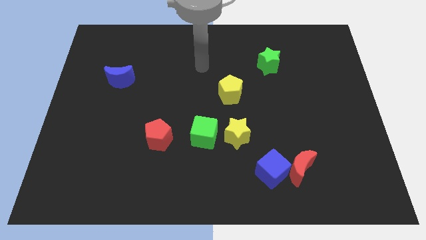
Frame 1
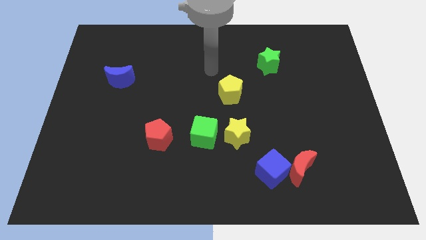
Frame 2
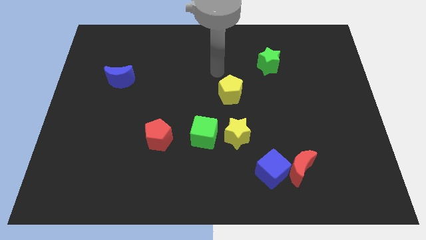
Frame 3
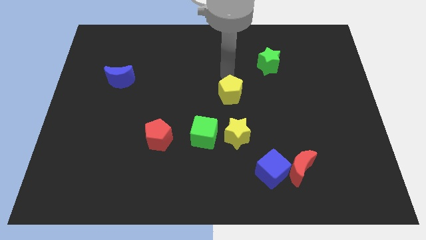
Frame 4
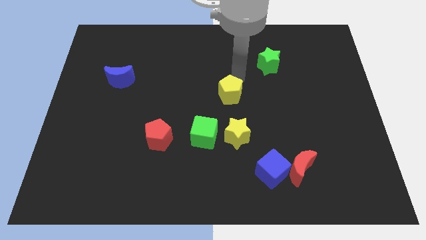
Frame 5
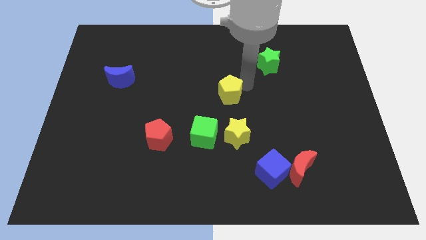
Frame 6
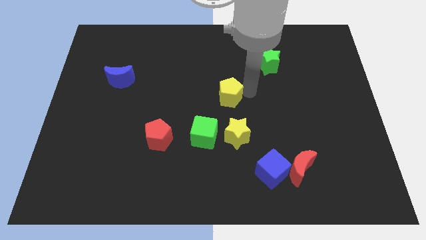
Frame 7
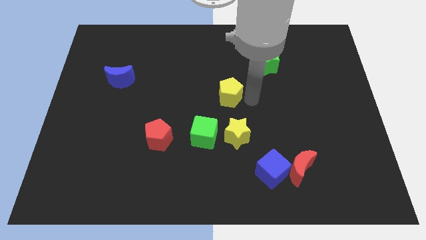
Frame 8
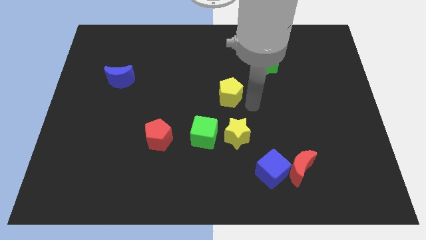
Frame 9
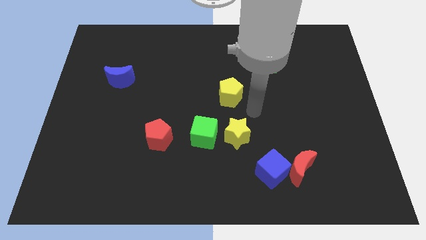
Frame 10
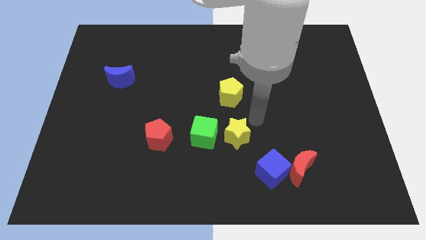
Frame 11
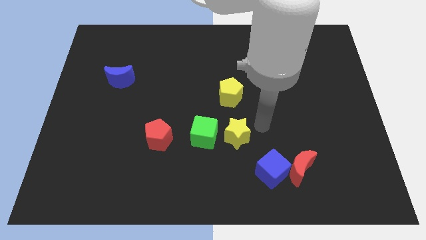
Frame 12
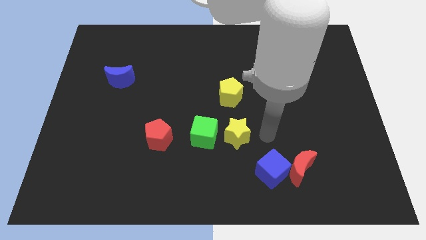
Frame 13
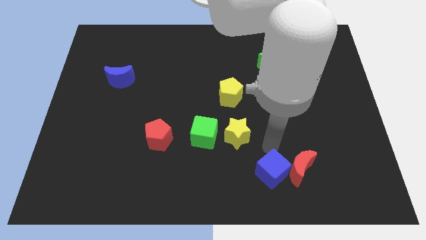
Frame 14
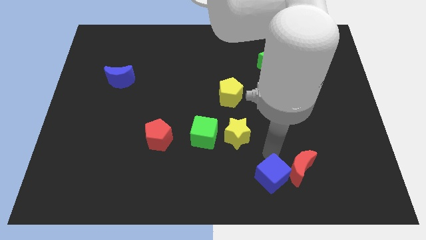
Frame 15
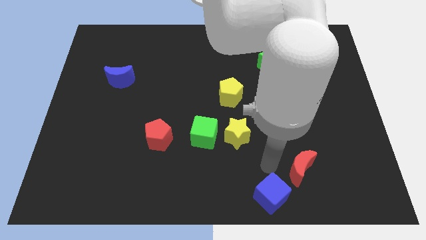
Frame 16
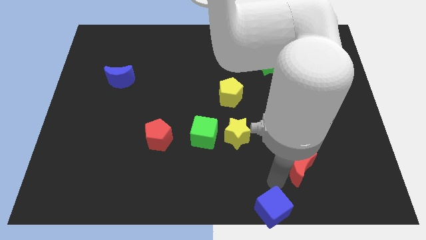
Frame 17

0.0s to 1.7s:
move the red moon away from the blue cube

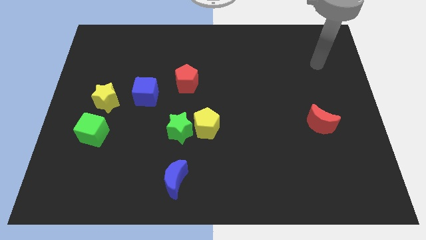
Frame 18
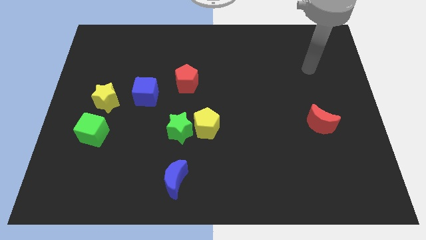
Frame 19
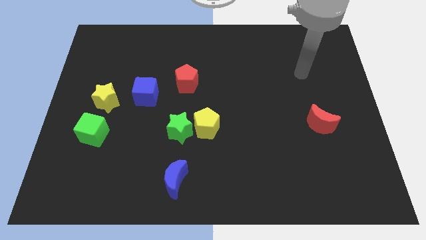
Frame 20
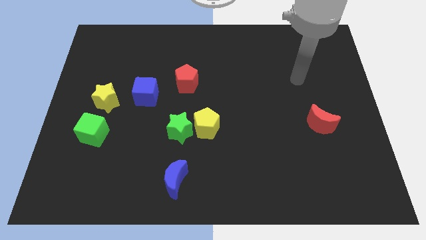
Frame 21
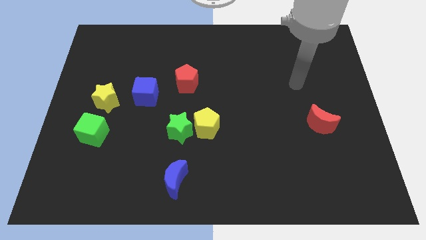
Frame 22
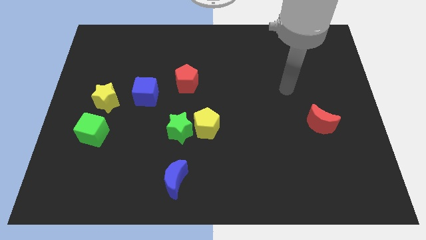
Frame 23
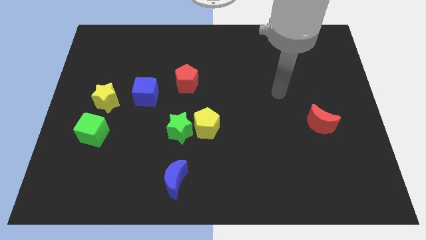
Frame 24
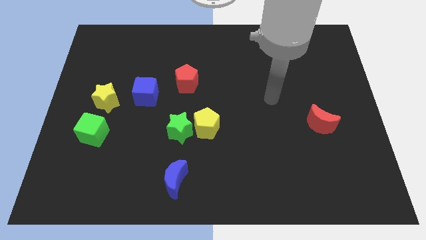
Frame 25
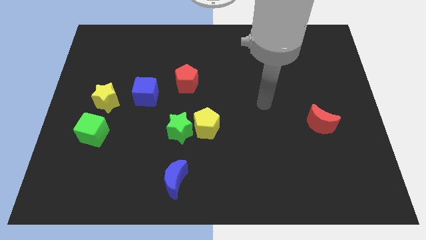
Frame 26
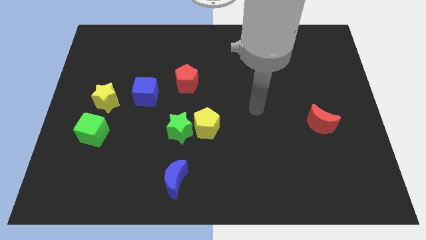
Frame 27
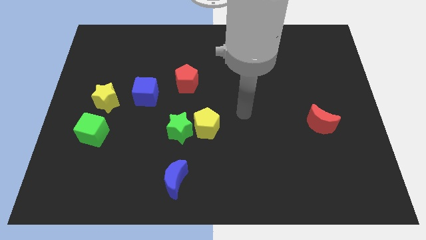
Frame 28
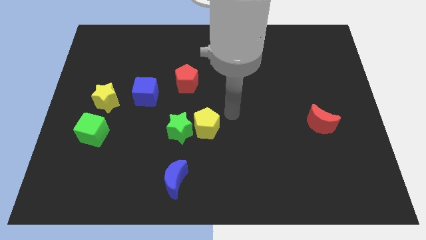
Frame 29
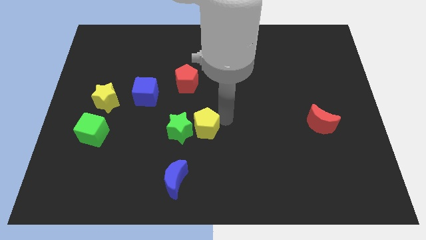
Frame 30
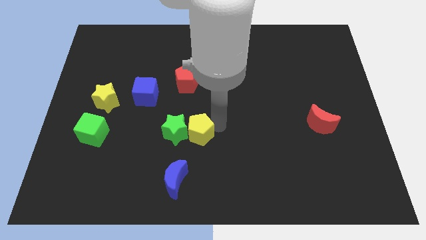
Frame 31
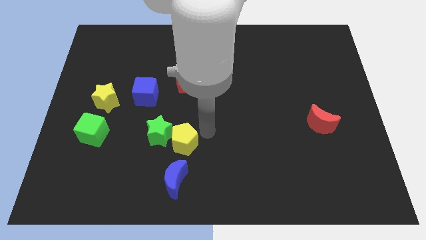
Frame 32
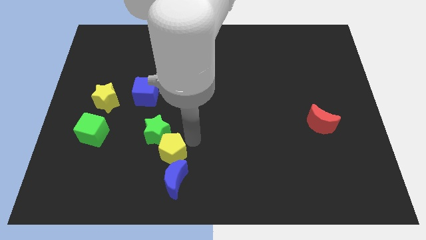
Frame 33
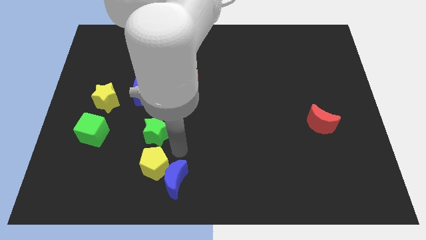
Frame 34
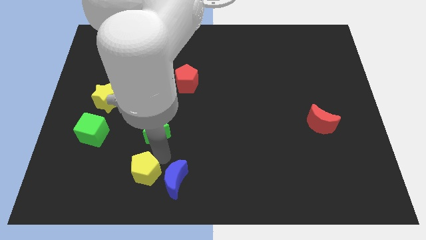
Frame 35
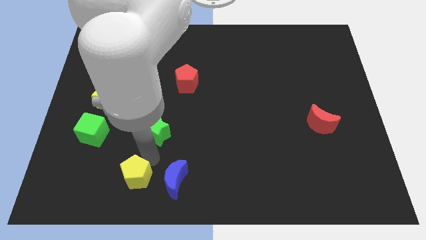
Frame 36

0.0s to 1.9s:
move the green star away from the yellow pentagon

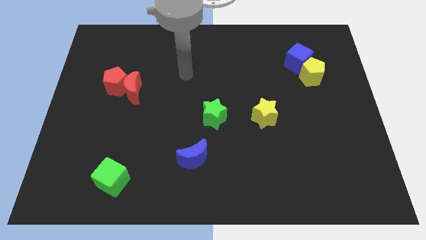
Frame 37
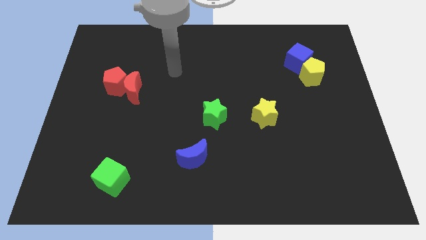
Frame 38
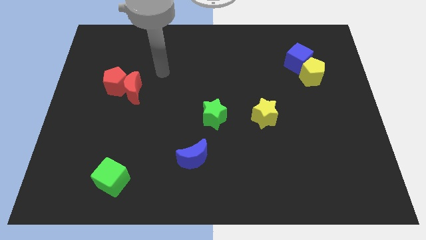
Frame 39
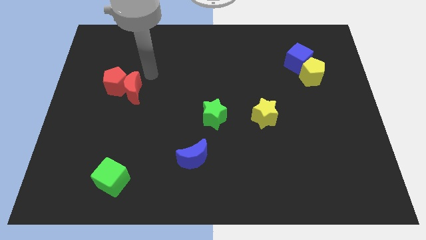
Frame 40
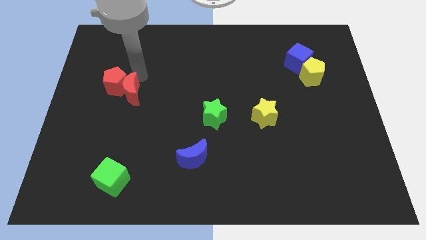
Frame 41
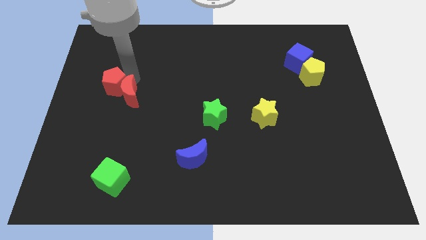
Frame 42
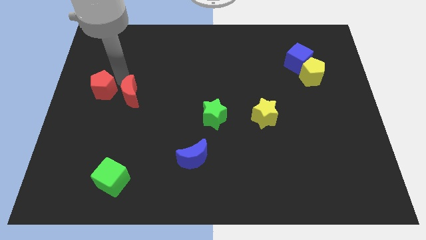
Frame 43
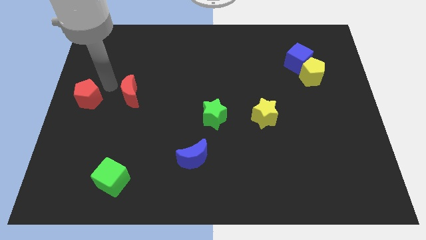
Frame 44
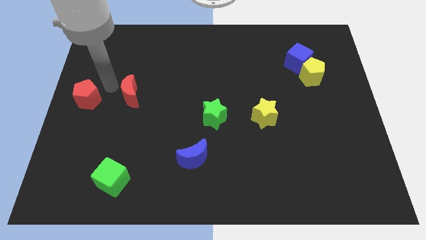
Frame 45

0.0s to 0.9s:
separate the red moon from the red pentagon

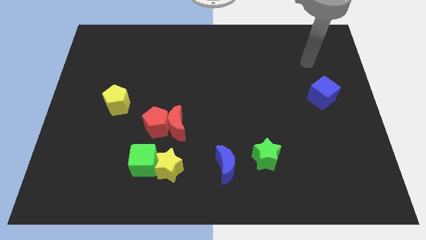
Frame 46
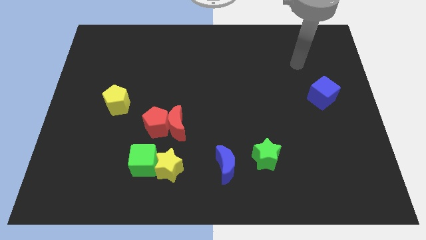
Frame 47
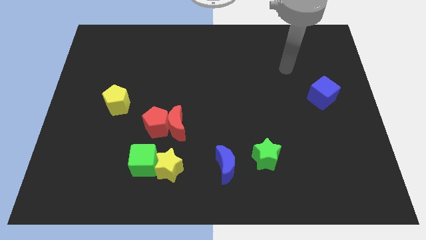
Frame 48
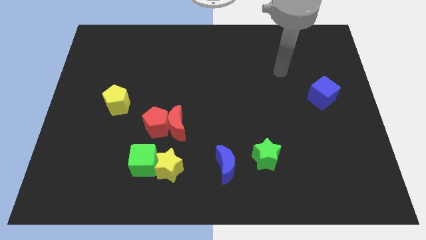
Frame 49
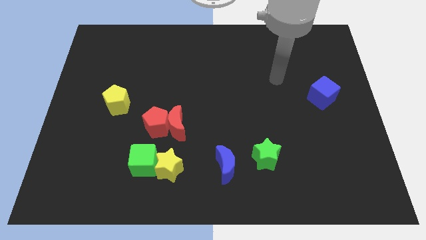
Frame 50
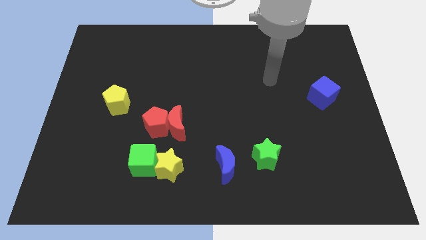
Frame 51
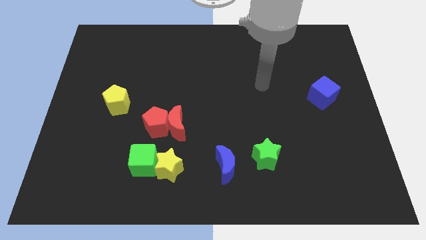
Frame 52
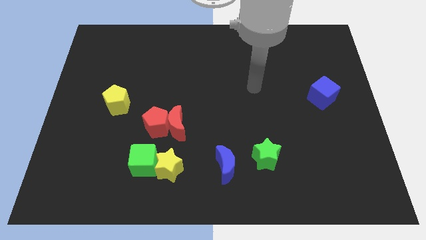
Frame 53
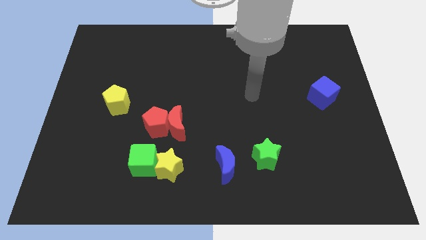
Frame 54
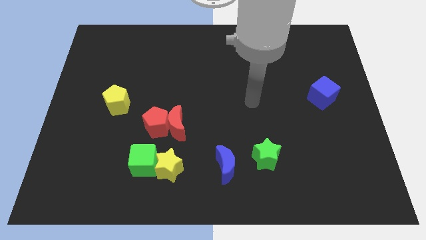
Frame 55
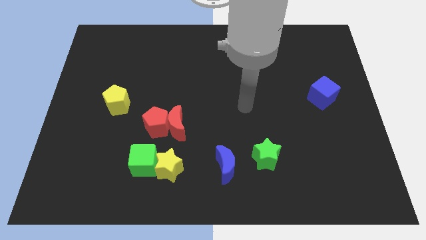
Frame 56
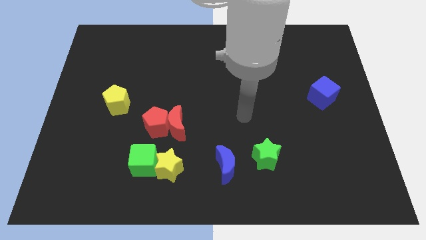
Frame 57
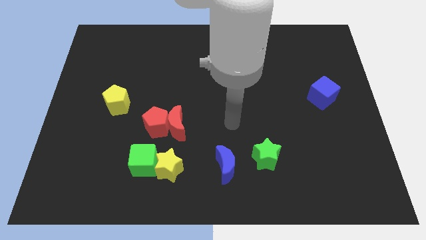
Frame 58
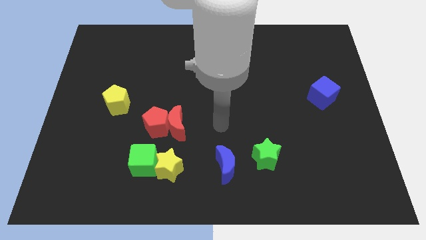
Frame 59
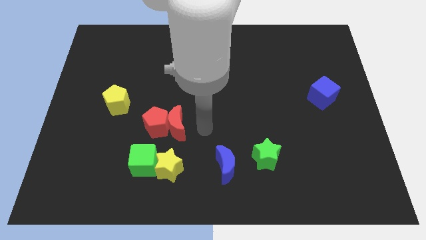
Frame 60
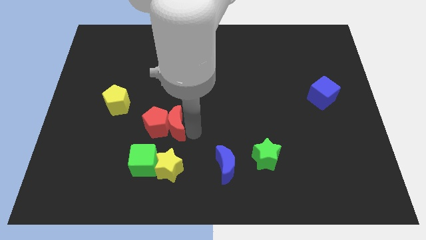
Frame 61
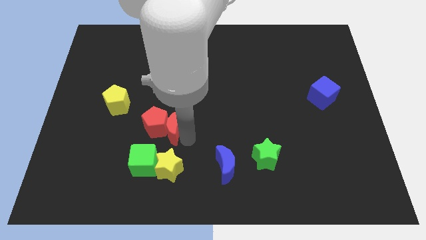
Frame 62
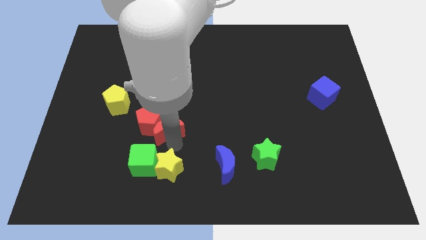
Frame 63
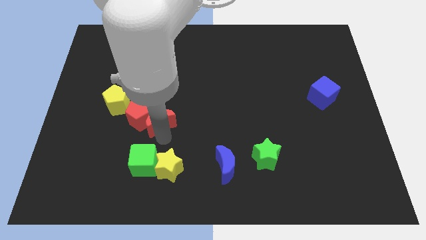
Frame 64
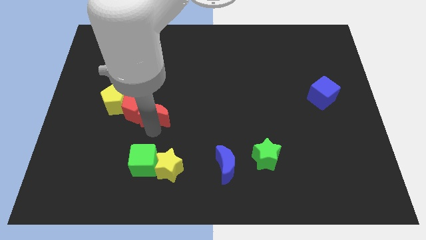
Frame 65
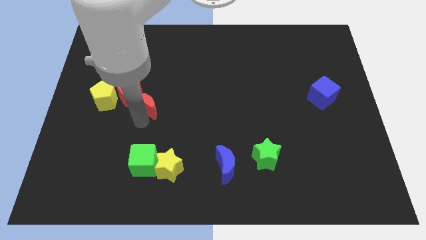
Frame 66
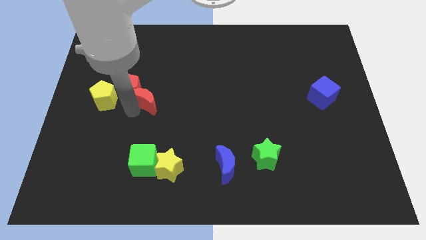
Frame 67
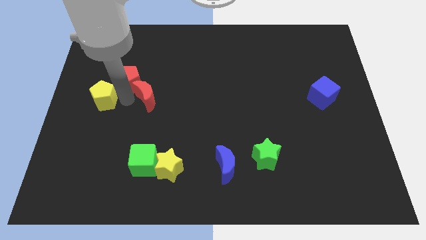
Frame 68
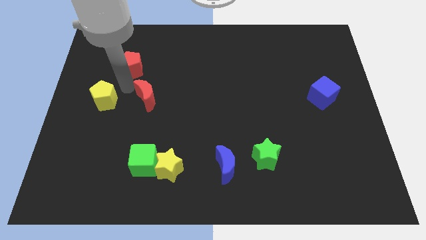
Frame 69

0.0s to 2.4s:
pull the red moon apart from the red pentagon

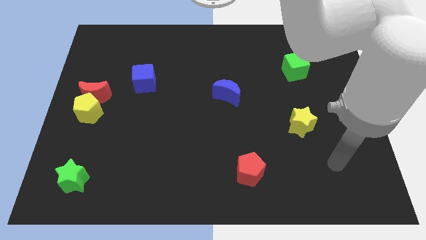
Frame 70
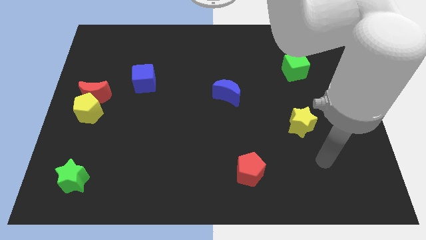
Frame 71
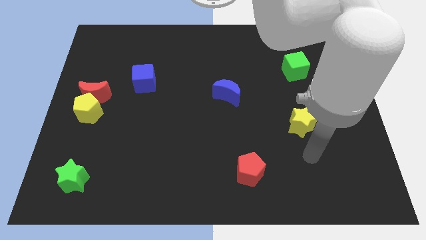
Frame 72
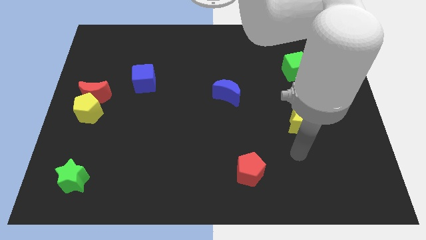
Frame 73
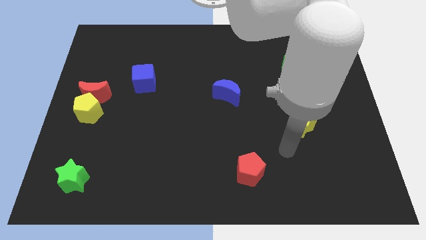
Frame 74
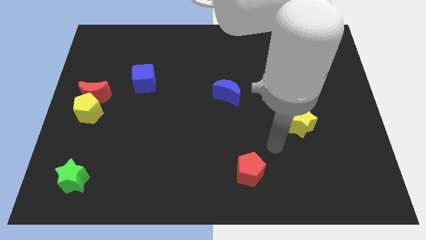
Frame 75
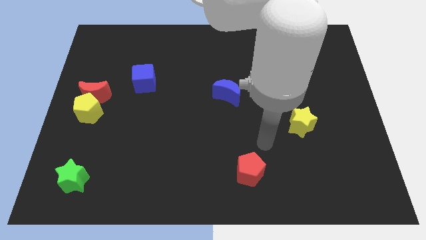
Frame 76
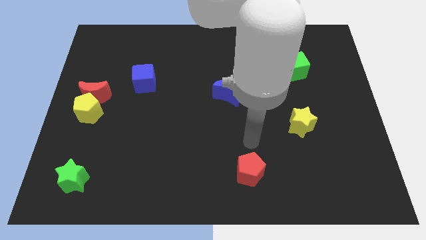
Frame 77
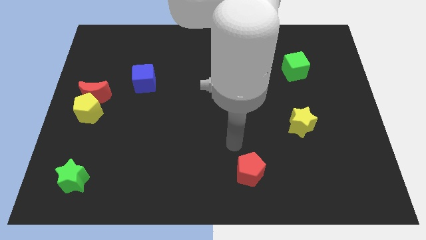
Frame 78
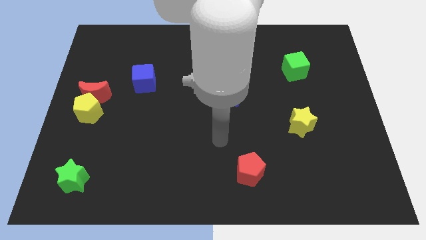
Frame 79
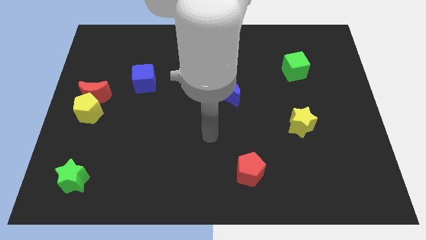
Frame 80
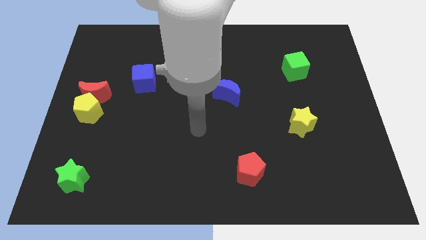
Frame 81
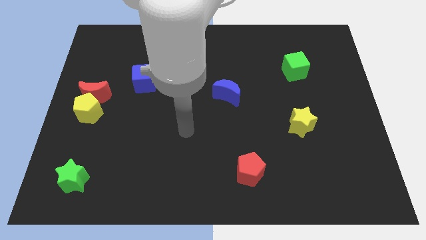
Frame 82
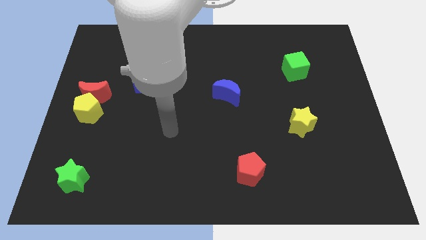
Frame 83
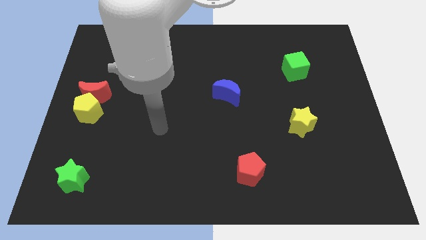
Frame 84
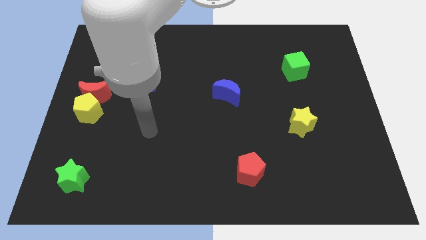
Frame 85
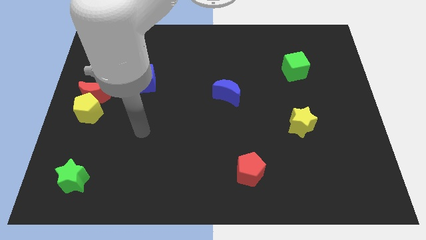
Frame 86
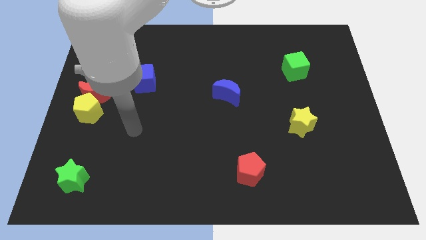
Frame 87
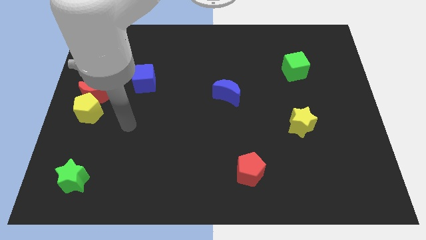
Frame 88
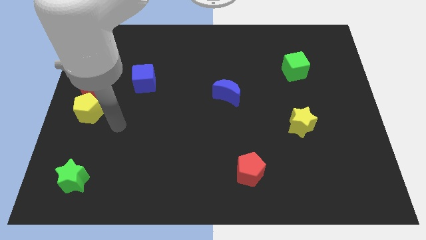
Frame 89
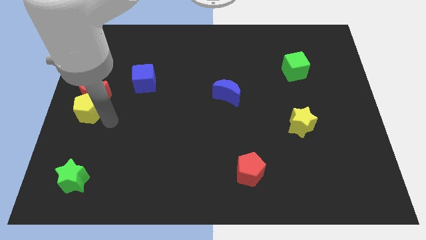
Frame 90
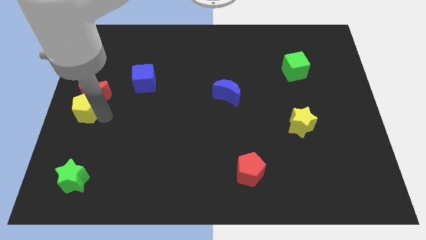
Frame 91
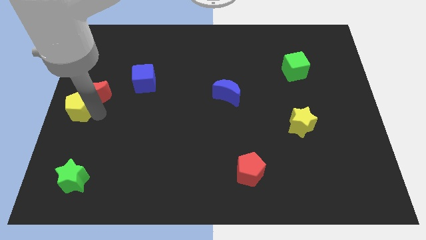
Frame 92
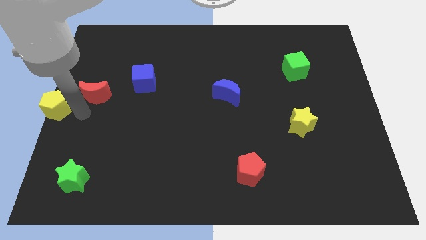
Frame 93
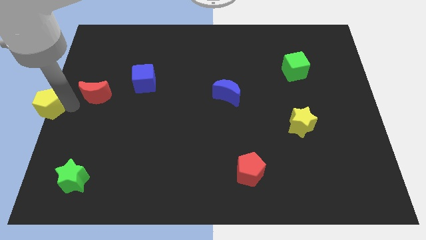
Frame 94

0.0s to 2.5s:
move the red moon away from the yellow pentagon
